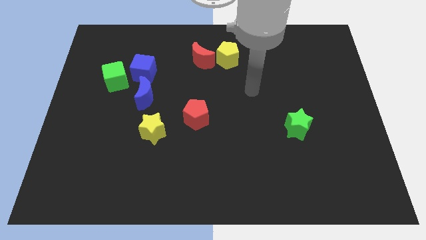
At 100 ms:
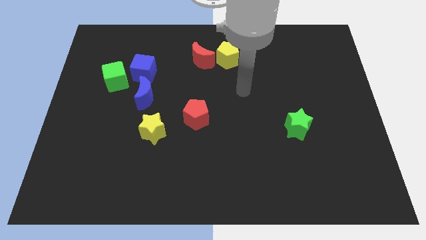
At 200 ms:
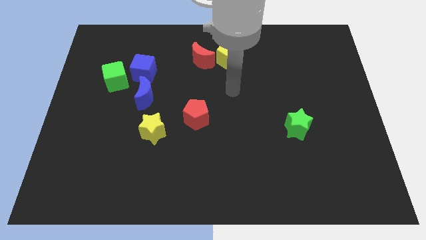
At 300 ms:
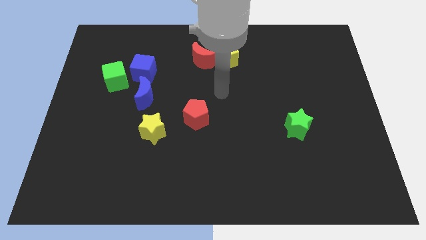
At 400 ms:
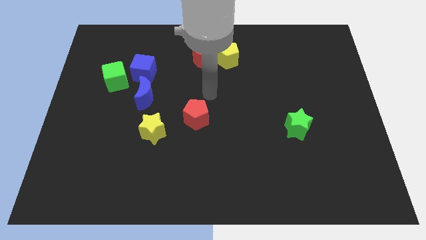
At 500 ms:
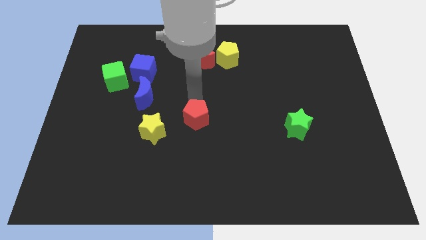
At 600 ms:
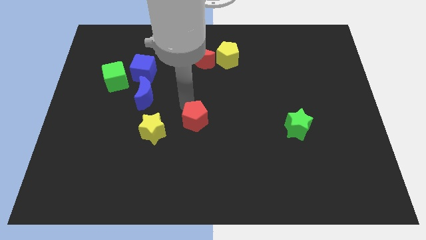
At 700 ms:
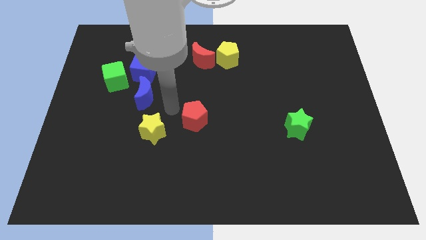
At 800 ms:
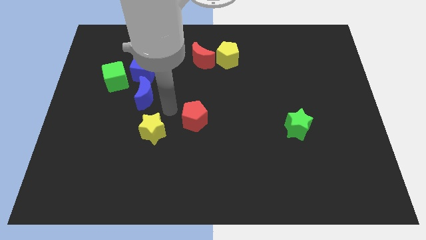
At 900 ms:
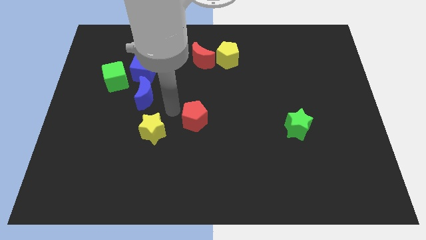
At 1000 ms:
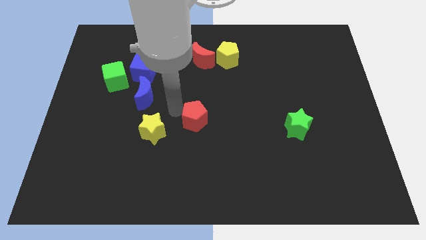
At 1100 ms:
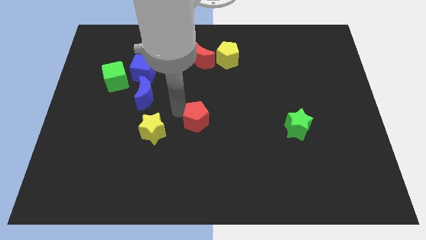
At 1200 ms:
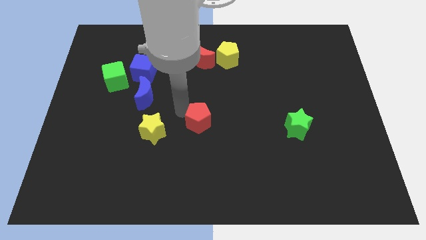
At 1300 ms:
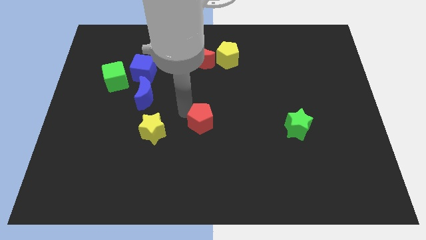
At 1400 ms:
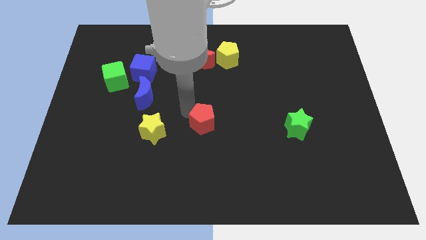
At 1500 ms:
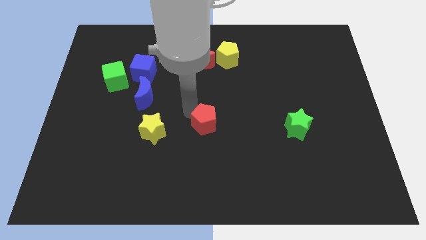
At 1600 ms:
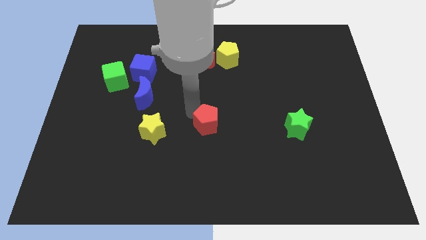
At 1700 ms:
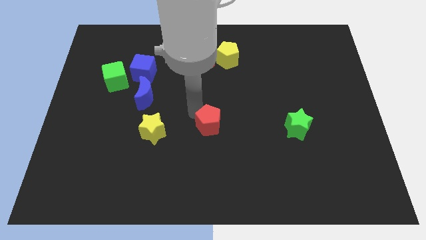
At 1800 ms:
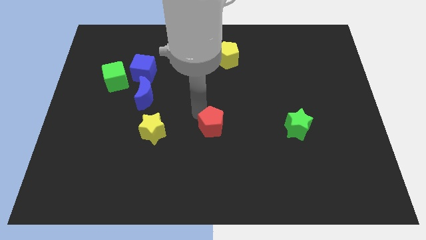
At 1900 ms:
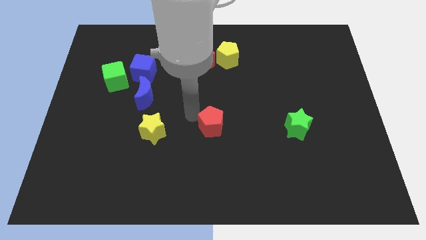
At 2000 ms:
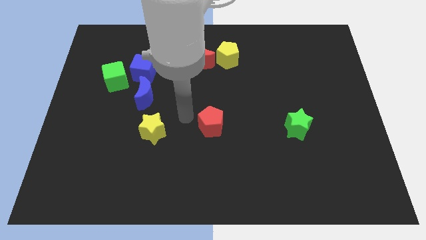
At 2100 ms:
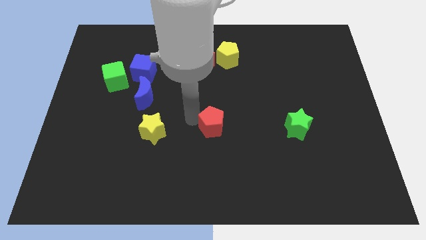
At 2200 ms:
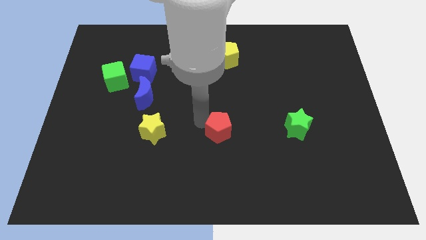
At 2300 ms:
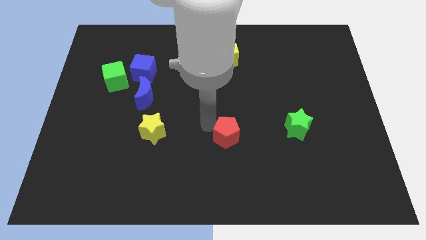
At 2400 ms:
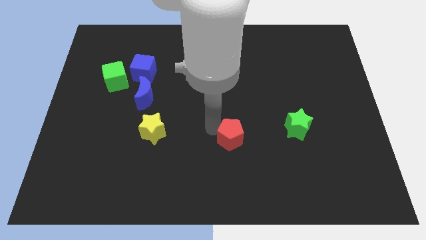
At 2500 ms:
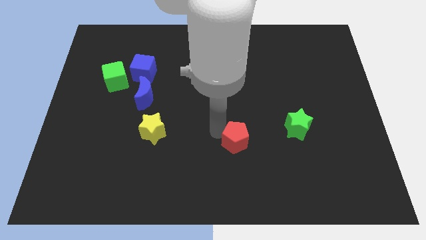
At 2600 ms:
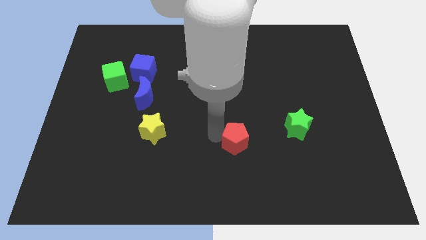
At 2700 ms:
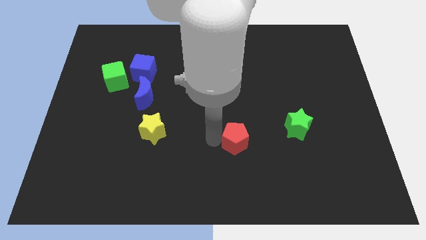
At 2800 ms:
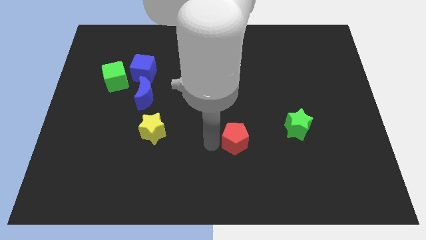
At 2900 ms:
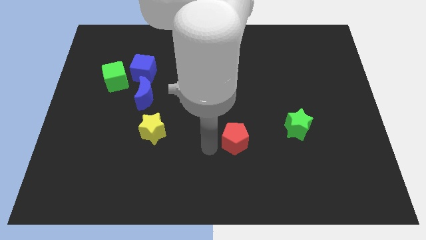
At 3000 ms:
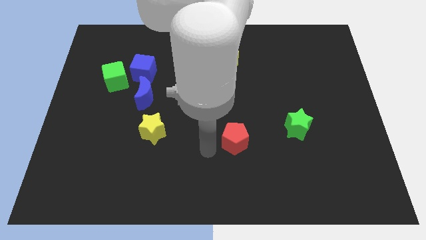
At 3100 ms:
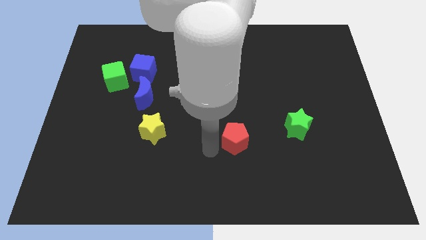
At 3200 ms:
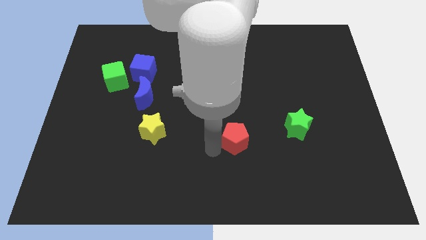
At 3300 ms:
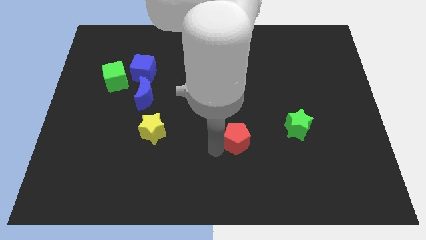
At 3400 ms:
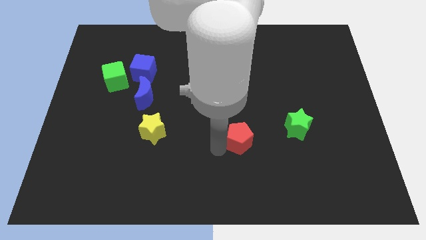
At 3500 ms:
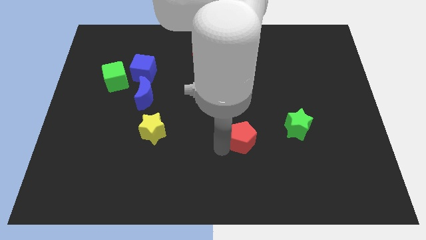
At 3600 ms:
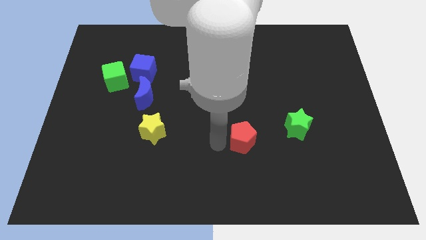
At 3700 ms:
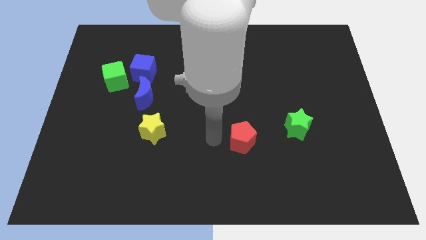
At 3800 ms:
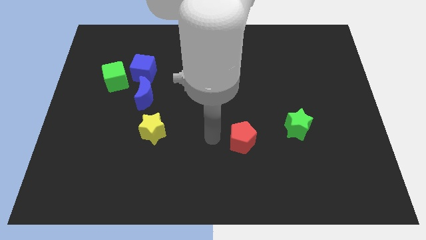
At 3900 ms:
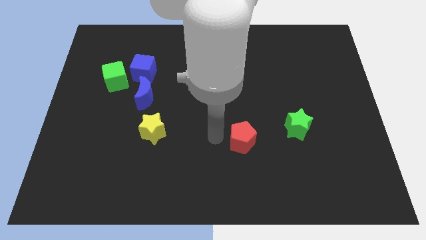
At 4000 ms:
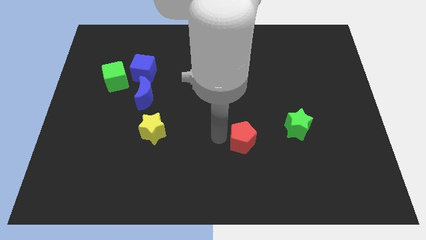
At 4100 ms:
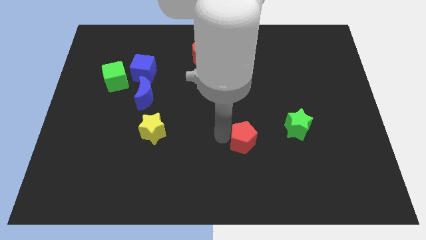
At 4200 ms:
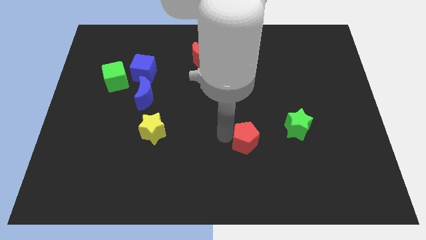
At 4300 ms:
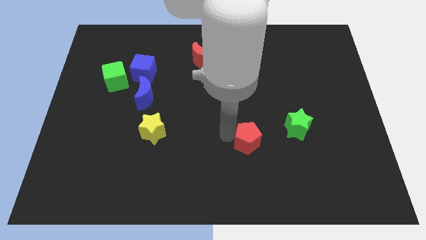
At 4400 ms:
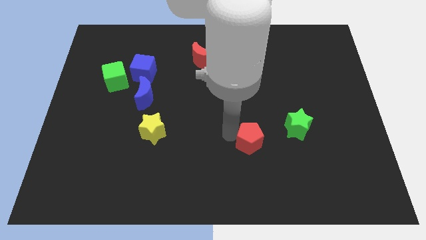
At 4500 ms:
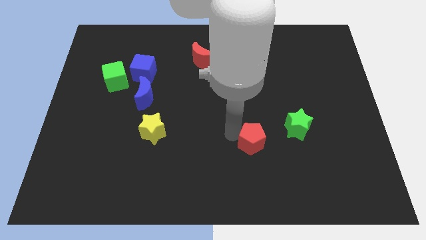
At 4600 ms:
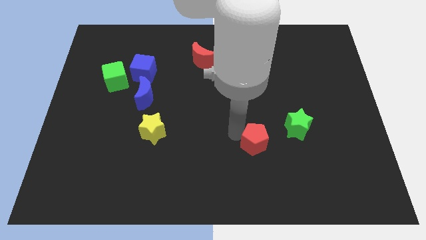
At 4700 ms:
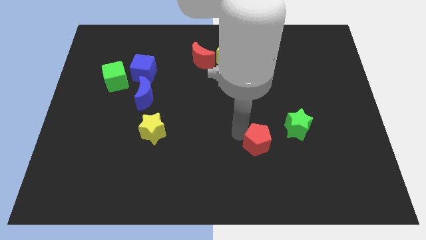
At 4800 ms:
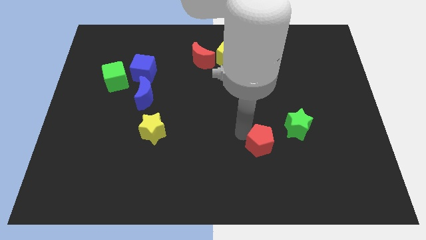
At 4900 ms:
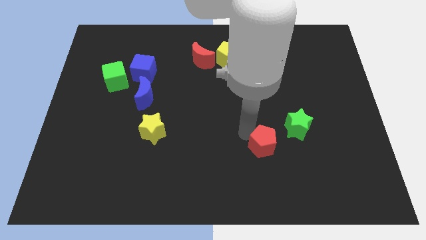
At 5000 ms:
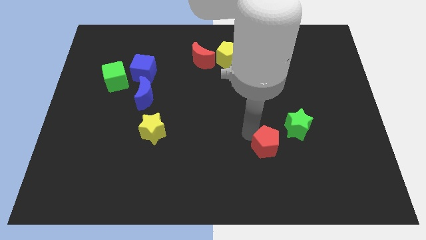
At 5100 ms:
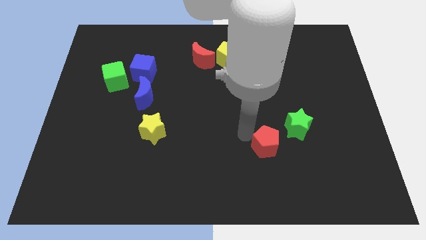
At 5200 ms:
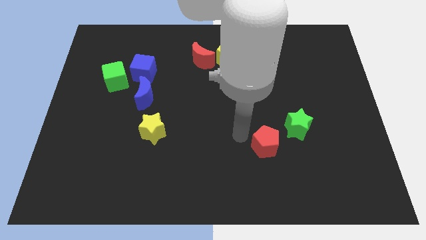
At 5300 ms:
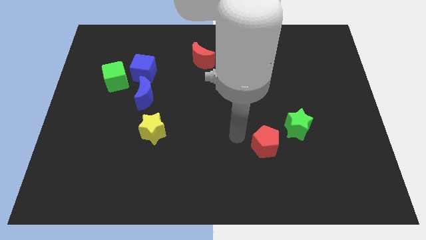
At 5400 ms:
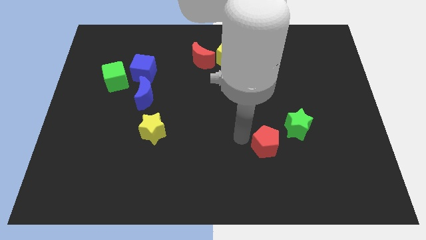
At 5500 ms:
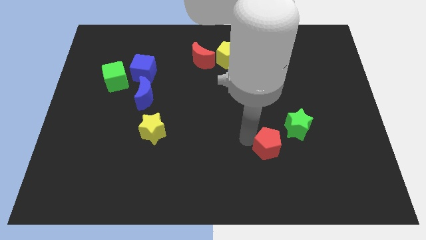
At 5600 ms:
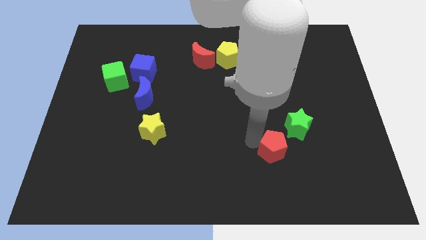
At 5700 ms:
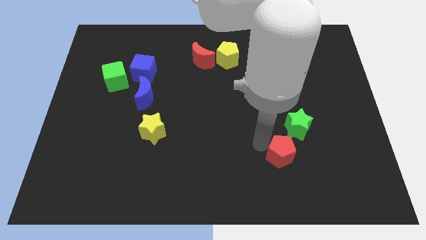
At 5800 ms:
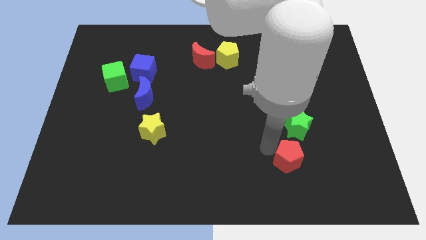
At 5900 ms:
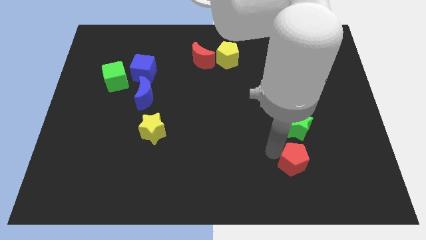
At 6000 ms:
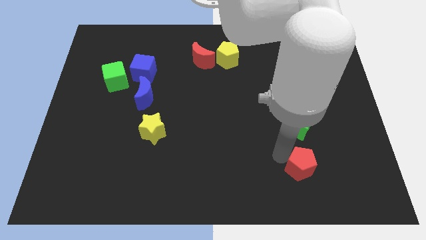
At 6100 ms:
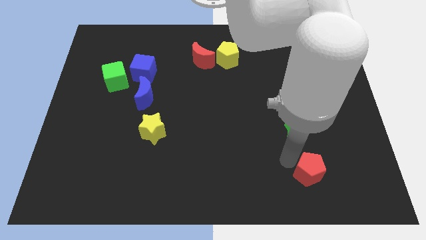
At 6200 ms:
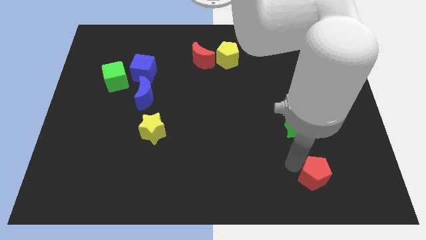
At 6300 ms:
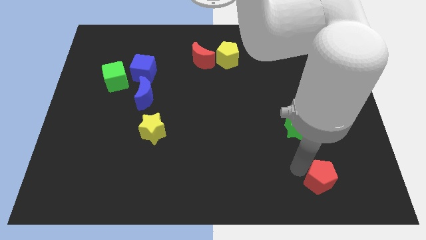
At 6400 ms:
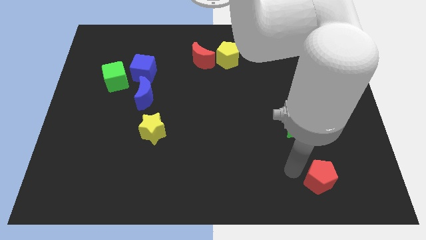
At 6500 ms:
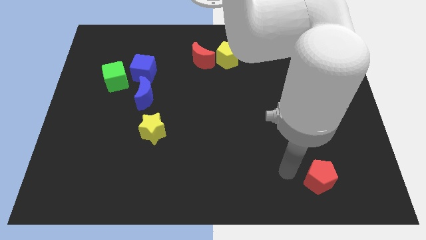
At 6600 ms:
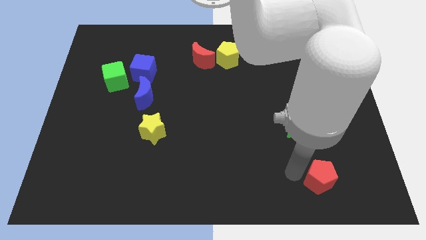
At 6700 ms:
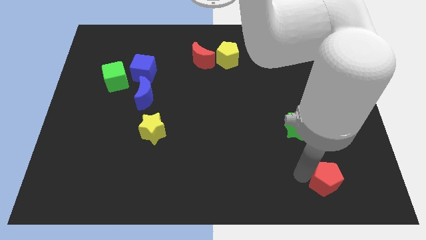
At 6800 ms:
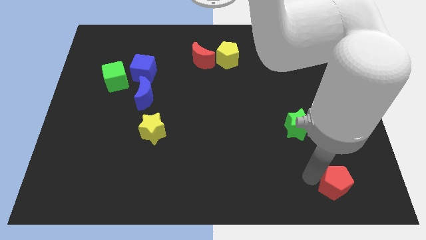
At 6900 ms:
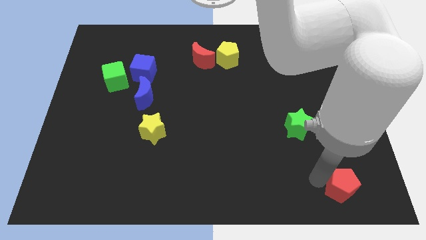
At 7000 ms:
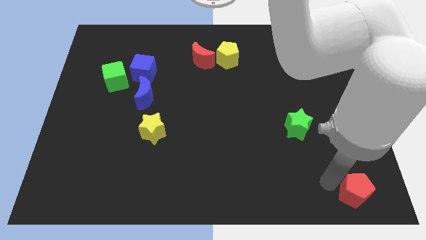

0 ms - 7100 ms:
push the red pentagon to the bottom right corner
